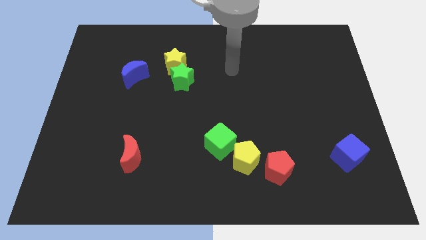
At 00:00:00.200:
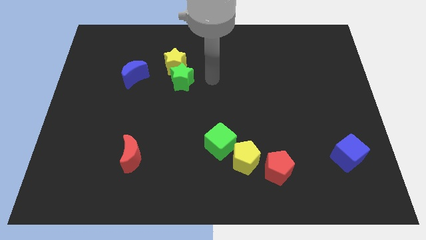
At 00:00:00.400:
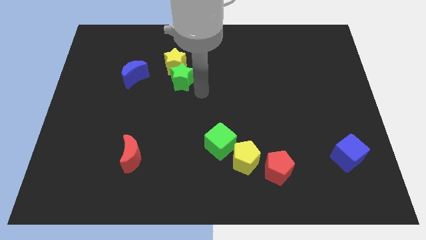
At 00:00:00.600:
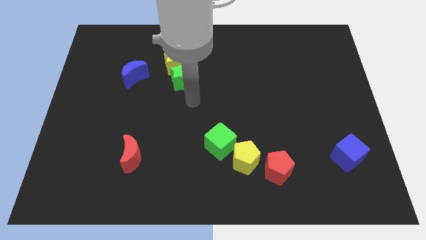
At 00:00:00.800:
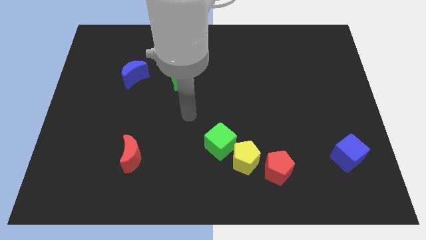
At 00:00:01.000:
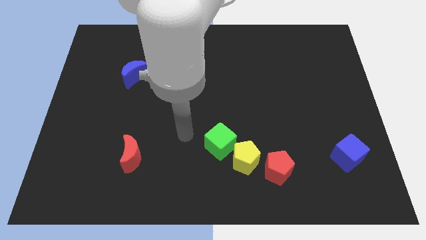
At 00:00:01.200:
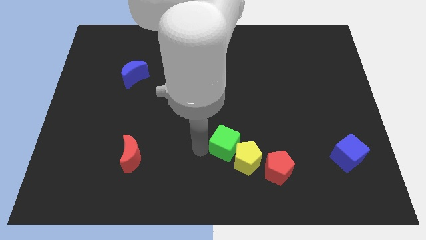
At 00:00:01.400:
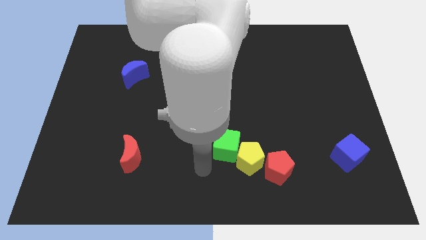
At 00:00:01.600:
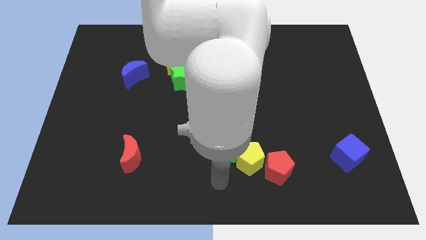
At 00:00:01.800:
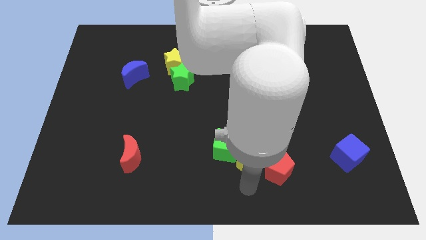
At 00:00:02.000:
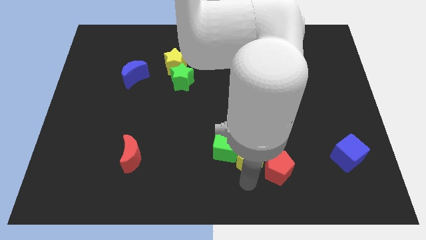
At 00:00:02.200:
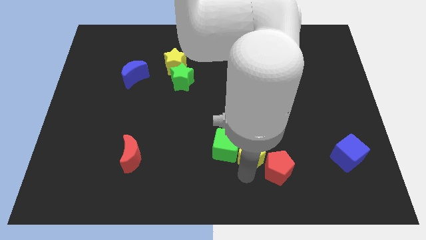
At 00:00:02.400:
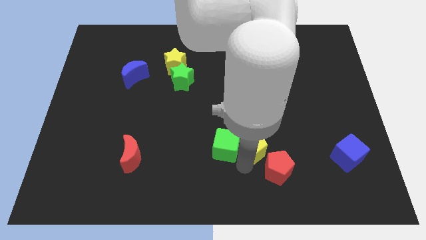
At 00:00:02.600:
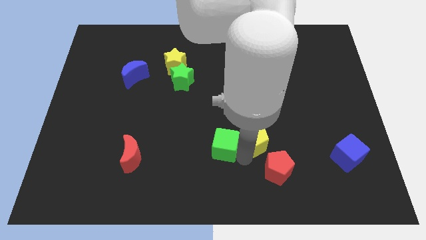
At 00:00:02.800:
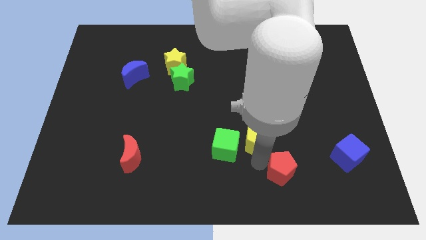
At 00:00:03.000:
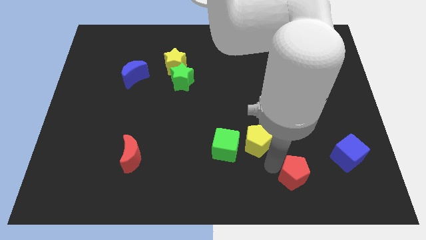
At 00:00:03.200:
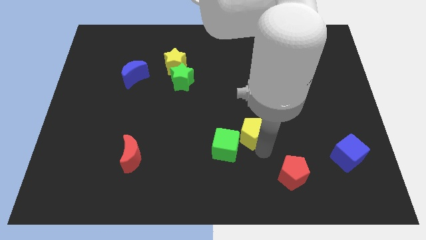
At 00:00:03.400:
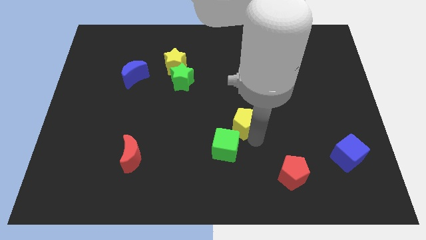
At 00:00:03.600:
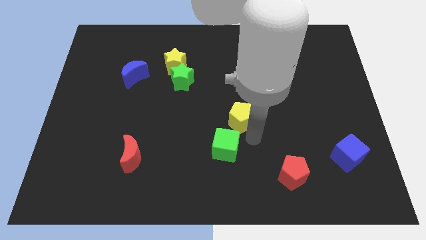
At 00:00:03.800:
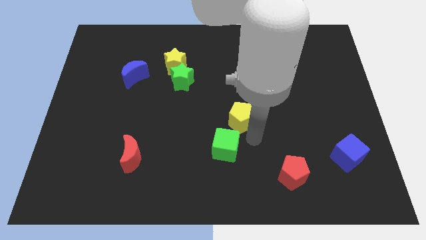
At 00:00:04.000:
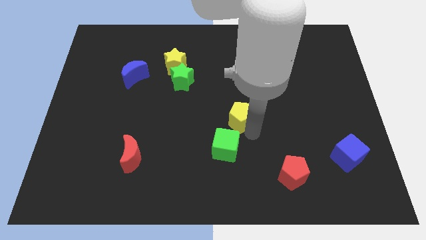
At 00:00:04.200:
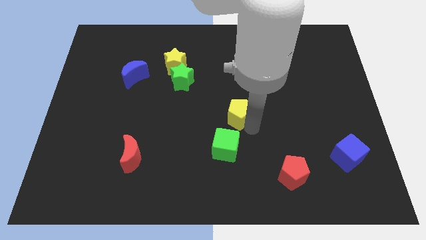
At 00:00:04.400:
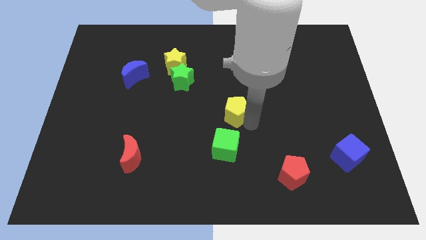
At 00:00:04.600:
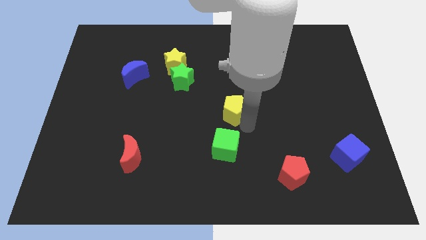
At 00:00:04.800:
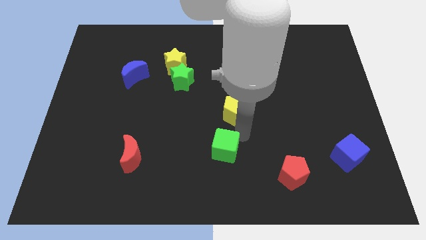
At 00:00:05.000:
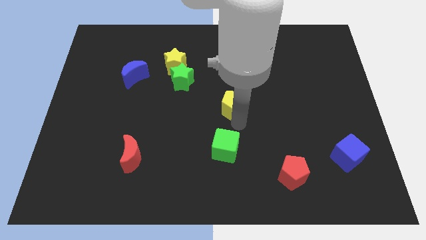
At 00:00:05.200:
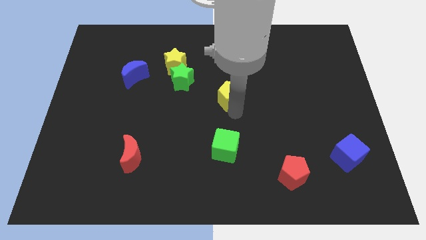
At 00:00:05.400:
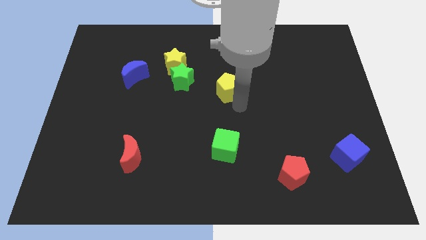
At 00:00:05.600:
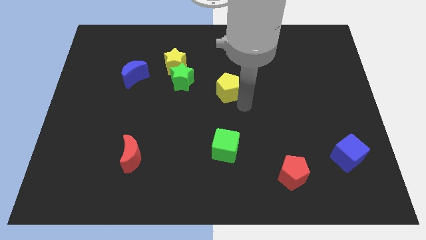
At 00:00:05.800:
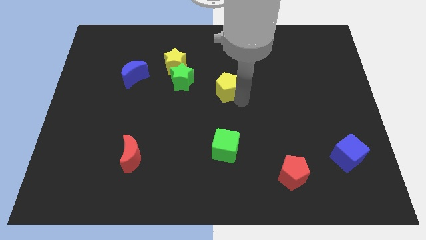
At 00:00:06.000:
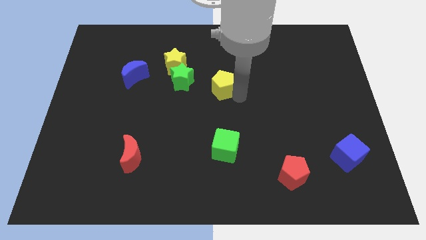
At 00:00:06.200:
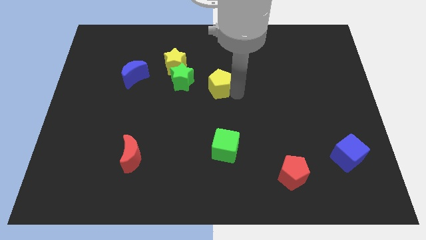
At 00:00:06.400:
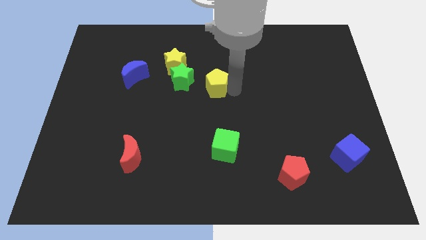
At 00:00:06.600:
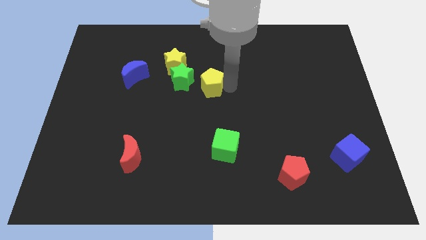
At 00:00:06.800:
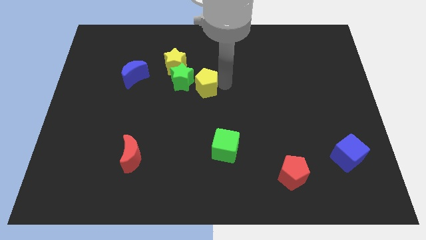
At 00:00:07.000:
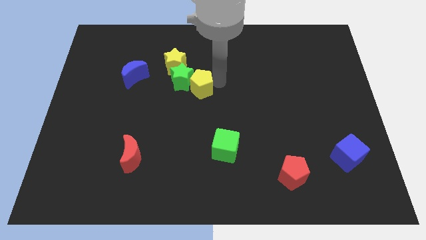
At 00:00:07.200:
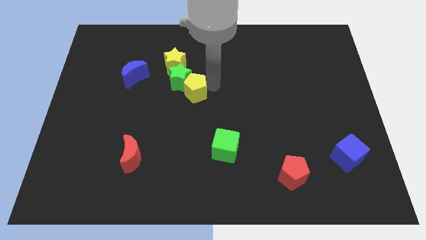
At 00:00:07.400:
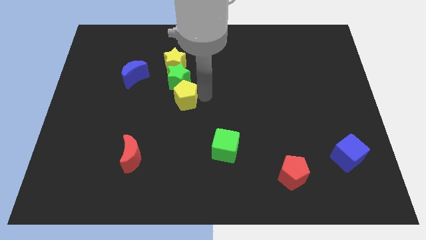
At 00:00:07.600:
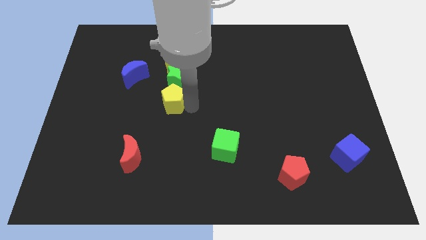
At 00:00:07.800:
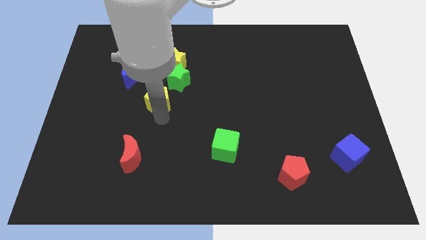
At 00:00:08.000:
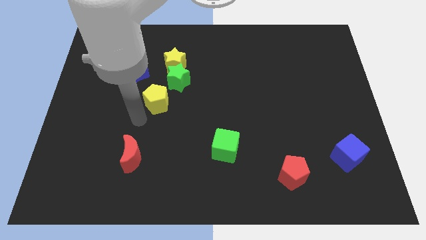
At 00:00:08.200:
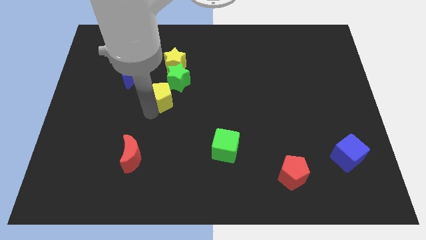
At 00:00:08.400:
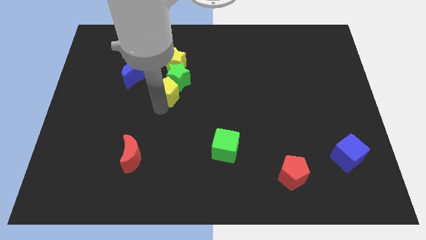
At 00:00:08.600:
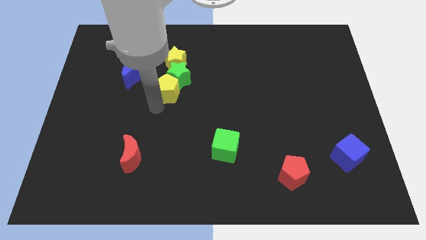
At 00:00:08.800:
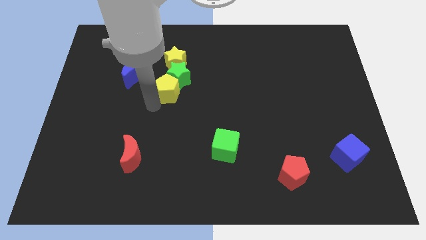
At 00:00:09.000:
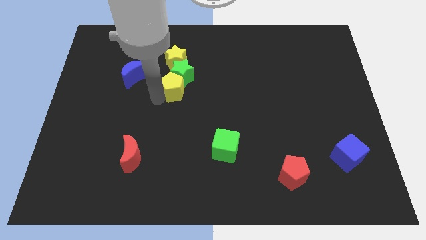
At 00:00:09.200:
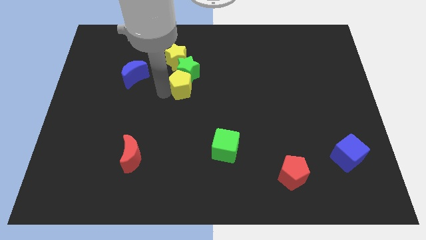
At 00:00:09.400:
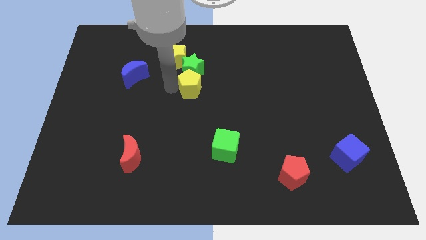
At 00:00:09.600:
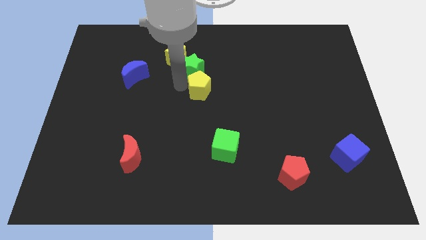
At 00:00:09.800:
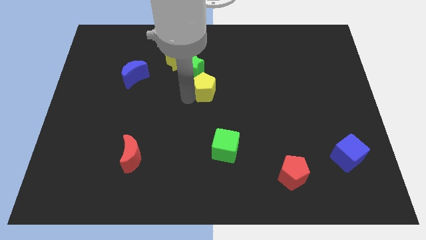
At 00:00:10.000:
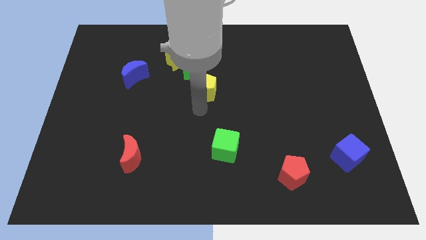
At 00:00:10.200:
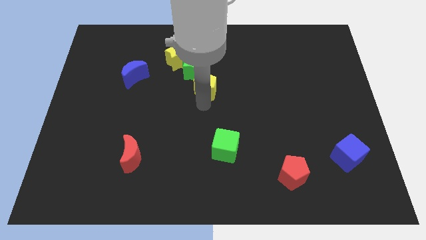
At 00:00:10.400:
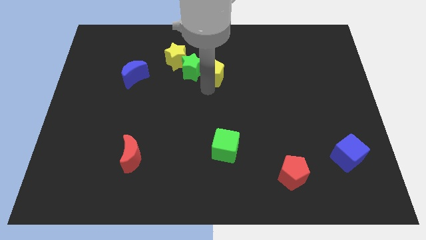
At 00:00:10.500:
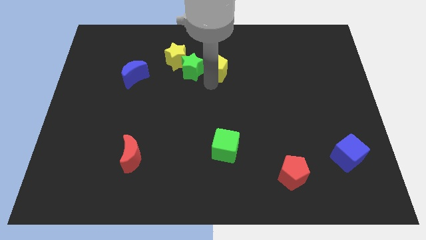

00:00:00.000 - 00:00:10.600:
slide the yellow pentagon to the top right side of the green star

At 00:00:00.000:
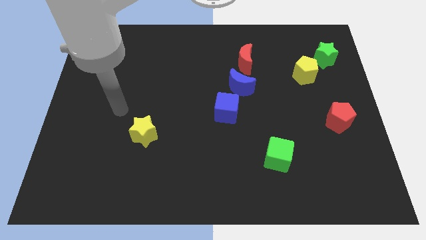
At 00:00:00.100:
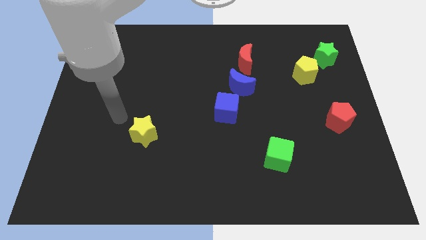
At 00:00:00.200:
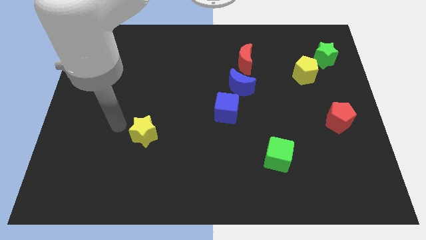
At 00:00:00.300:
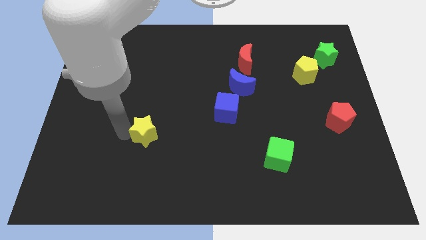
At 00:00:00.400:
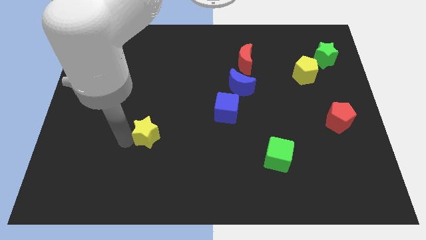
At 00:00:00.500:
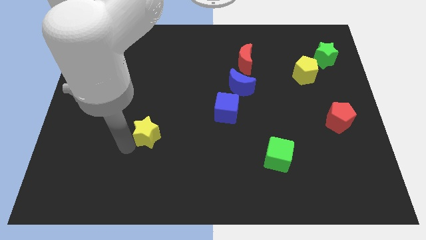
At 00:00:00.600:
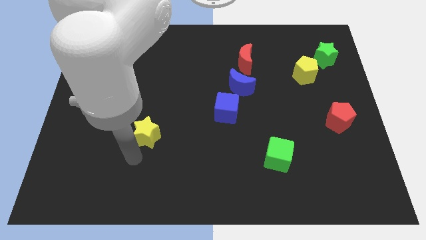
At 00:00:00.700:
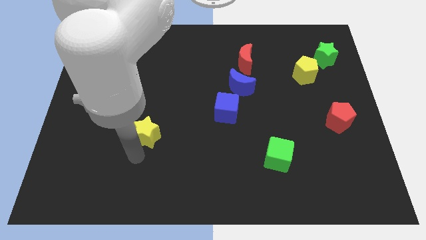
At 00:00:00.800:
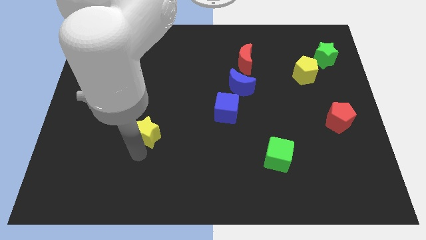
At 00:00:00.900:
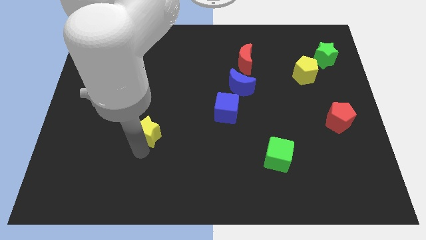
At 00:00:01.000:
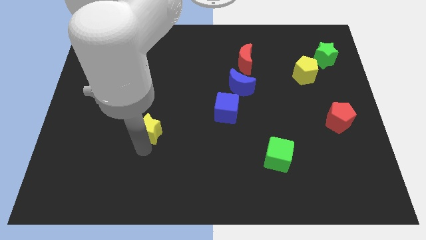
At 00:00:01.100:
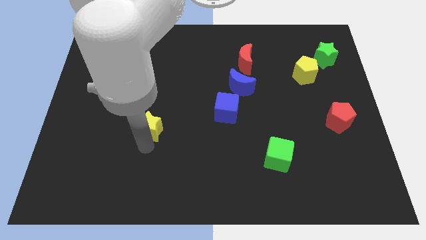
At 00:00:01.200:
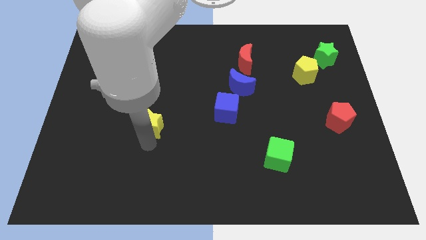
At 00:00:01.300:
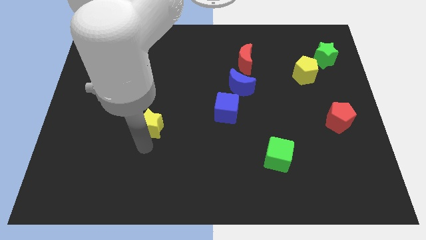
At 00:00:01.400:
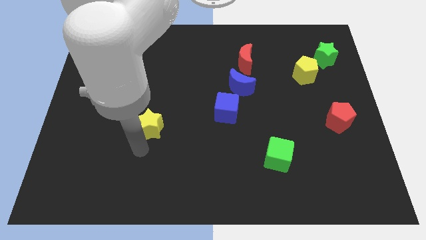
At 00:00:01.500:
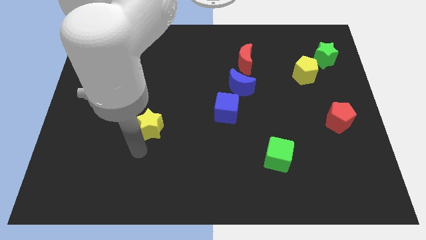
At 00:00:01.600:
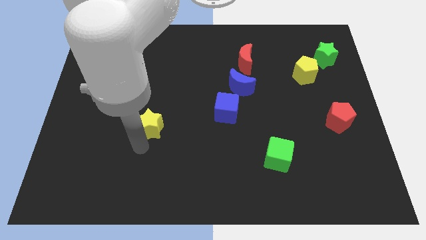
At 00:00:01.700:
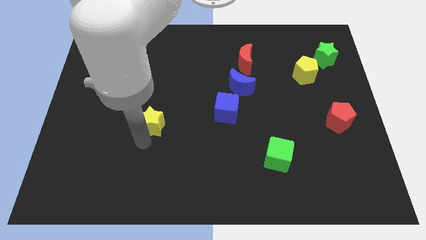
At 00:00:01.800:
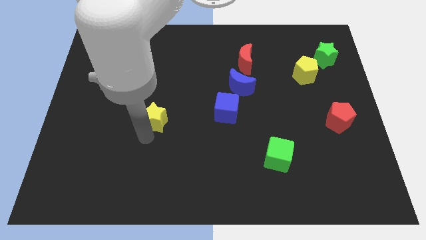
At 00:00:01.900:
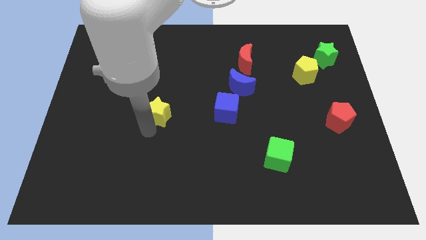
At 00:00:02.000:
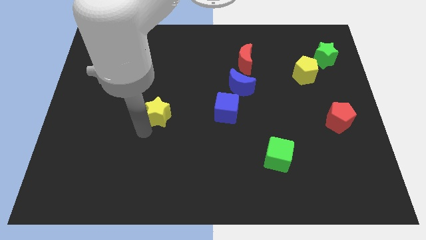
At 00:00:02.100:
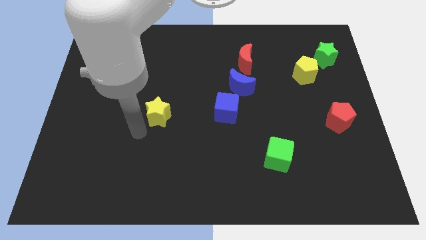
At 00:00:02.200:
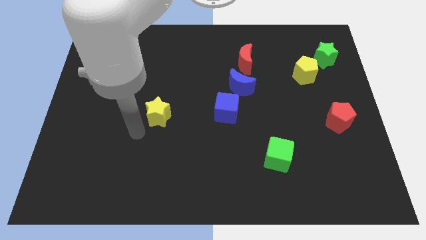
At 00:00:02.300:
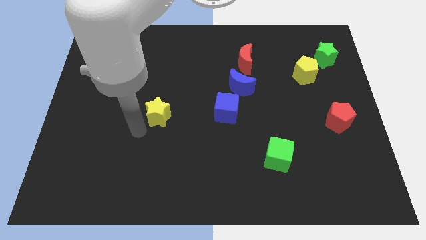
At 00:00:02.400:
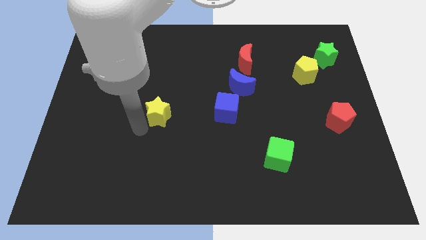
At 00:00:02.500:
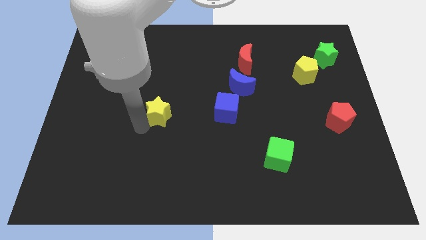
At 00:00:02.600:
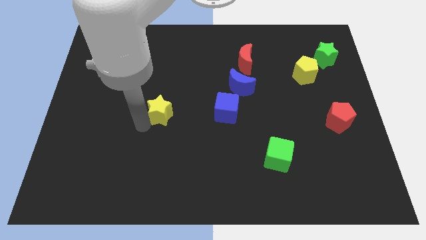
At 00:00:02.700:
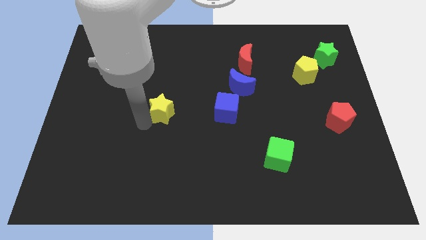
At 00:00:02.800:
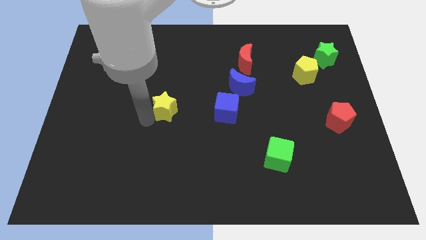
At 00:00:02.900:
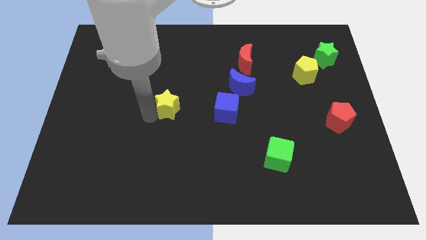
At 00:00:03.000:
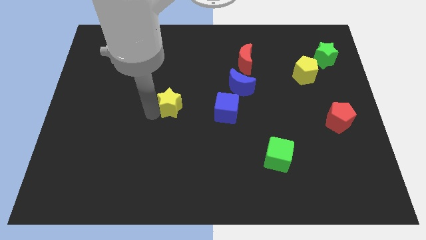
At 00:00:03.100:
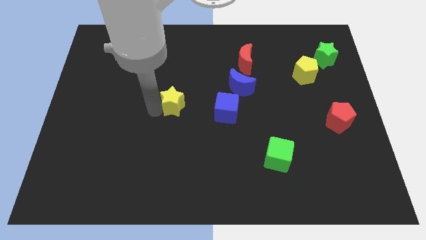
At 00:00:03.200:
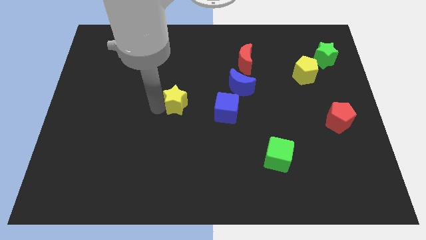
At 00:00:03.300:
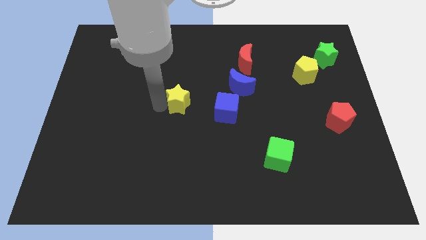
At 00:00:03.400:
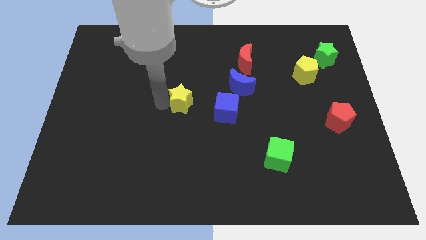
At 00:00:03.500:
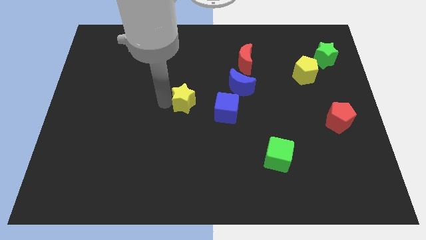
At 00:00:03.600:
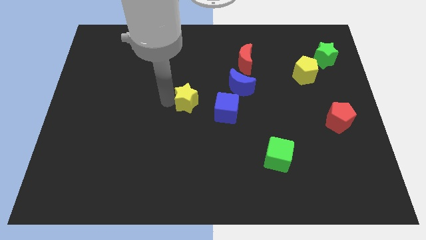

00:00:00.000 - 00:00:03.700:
push the yellow star to the left side of the blue moon
